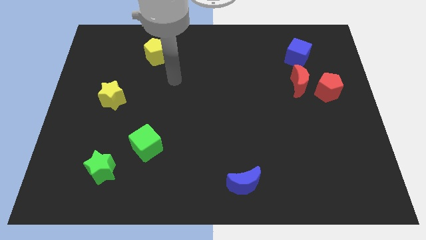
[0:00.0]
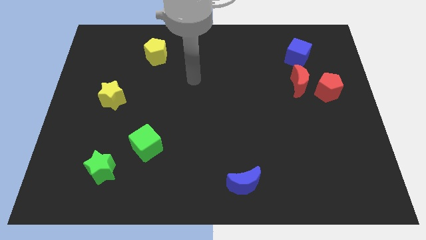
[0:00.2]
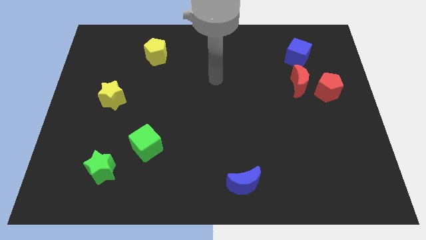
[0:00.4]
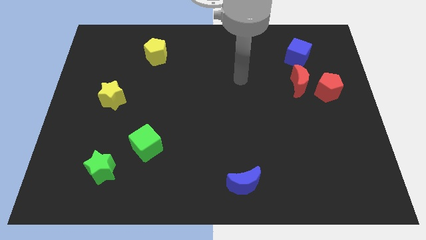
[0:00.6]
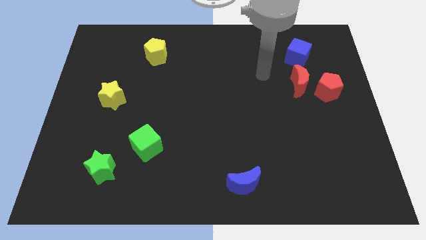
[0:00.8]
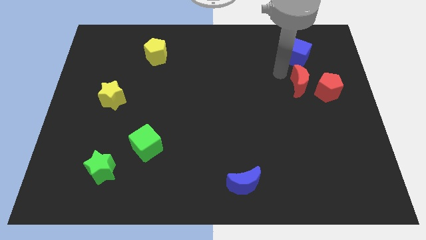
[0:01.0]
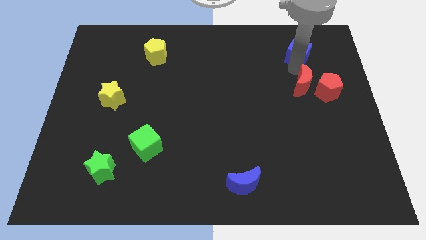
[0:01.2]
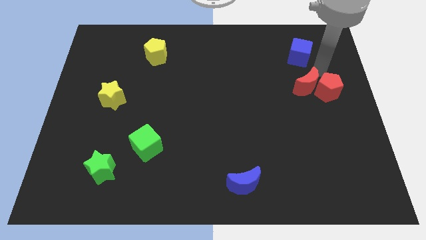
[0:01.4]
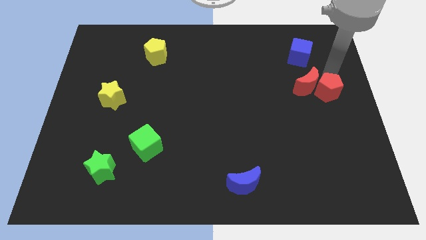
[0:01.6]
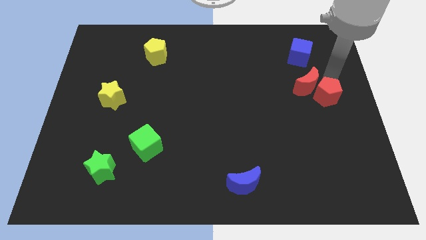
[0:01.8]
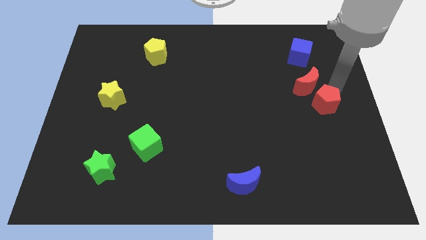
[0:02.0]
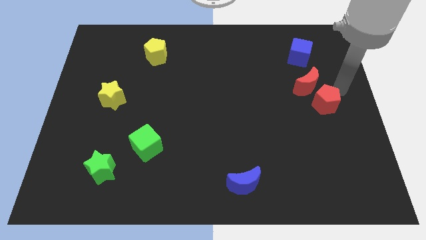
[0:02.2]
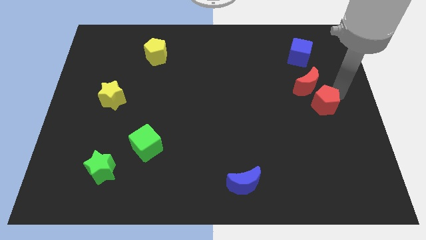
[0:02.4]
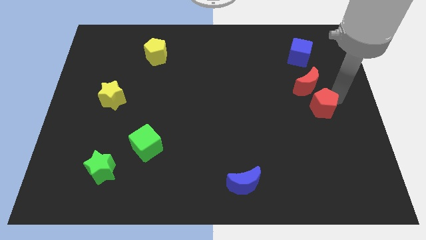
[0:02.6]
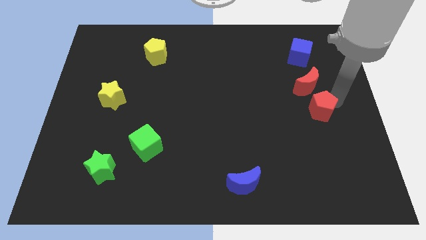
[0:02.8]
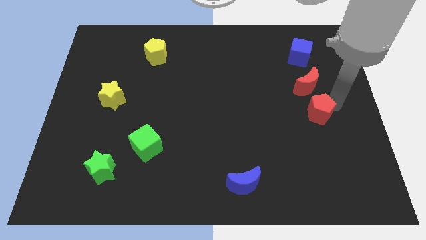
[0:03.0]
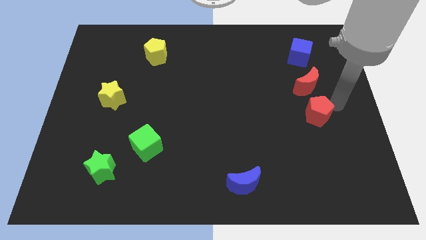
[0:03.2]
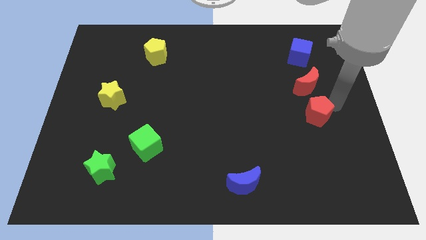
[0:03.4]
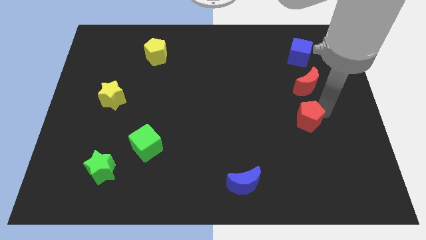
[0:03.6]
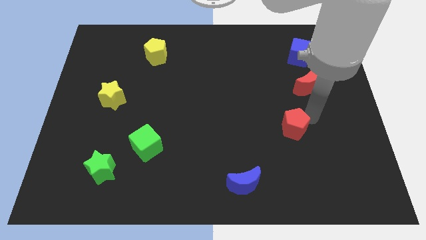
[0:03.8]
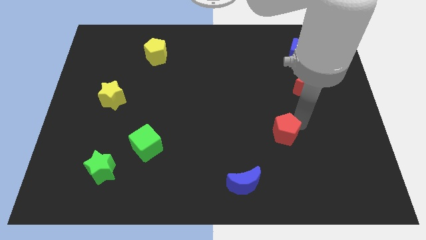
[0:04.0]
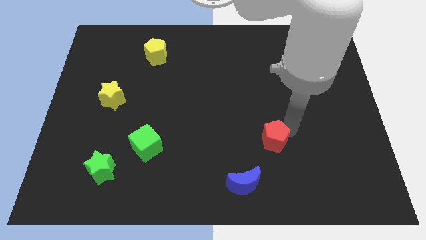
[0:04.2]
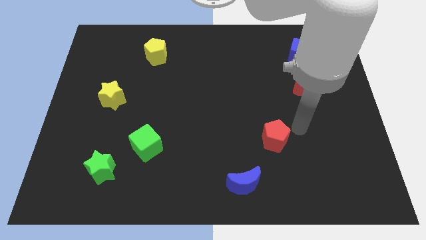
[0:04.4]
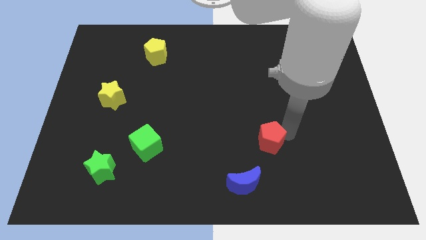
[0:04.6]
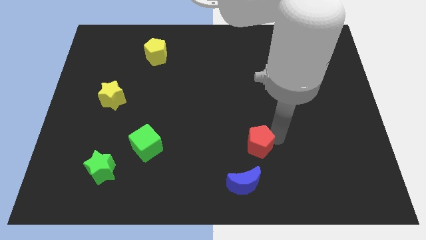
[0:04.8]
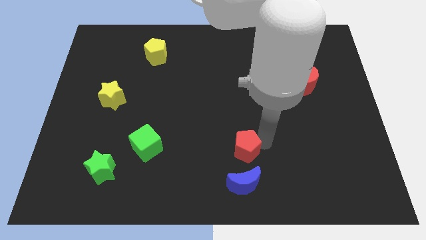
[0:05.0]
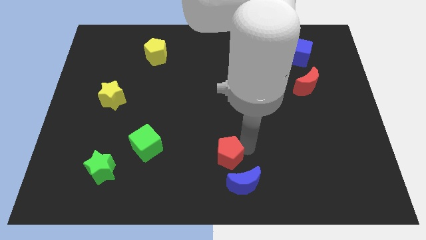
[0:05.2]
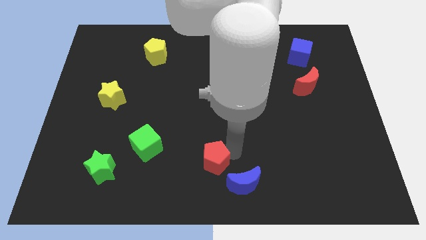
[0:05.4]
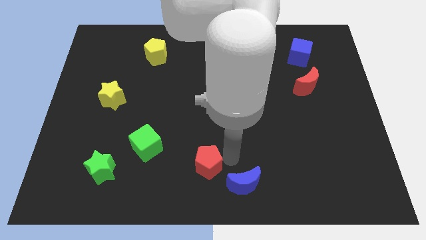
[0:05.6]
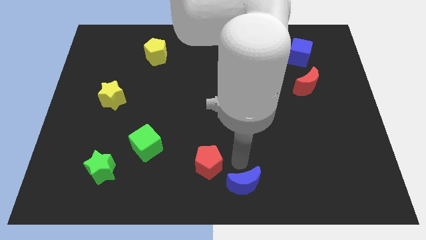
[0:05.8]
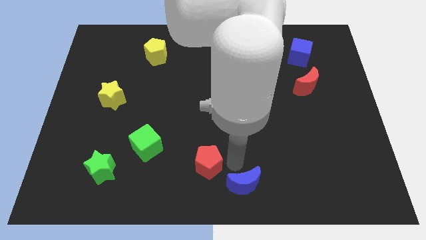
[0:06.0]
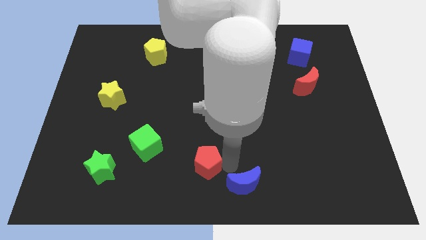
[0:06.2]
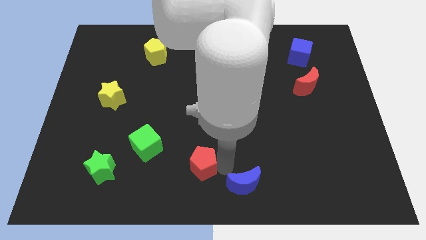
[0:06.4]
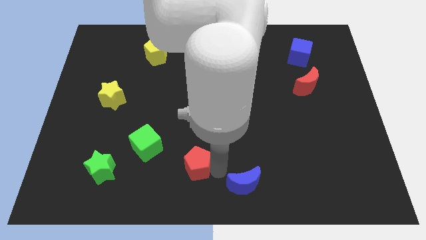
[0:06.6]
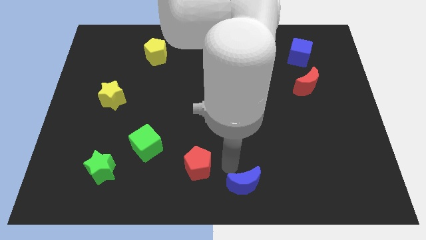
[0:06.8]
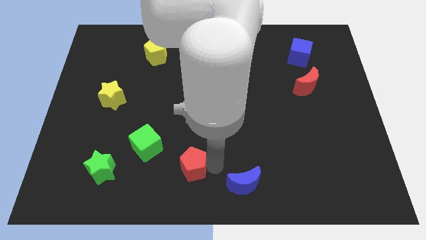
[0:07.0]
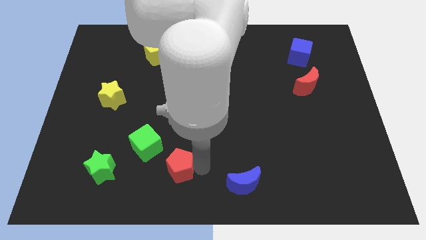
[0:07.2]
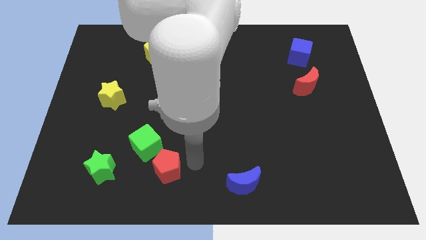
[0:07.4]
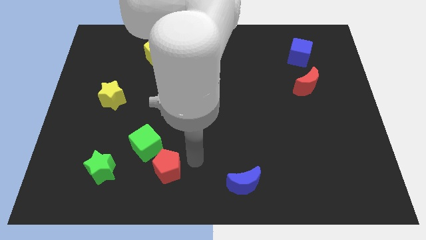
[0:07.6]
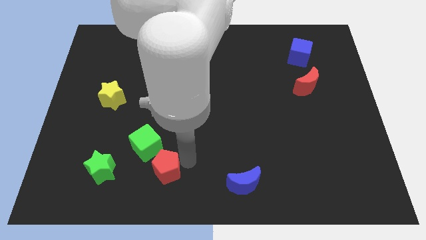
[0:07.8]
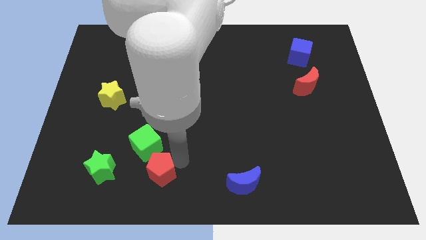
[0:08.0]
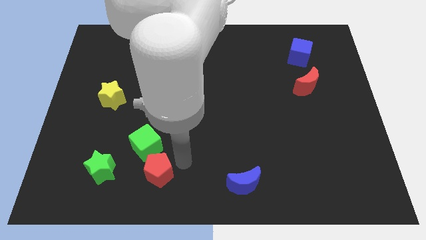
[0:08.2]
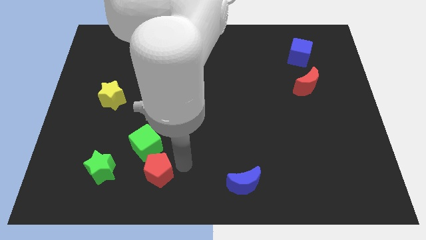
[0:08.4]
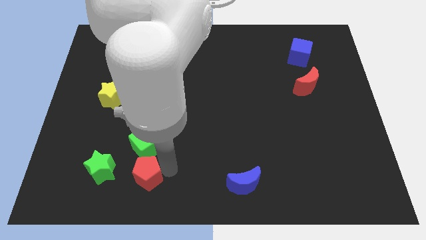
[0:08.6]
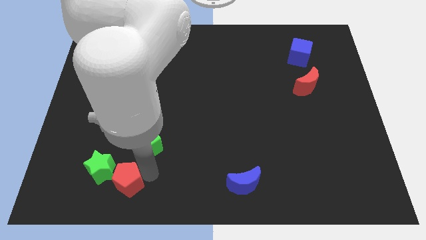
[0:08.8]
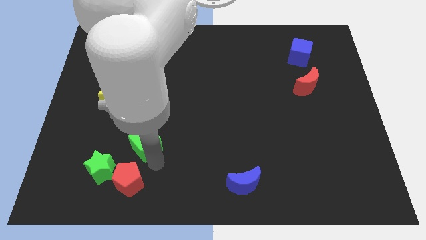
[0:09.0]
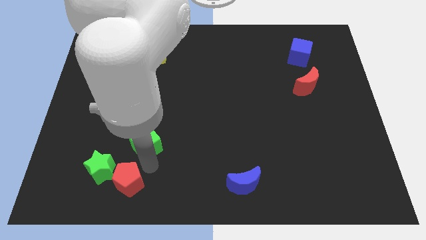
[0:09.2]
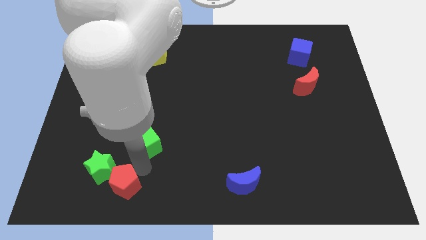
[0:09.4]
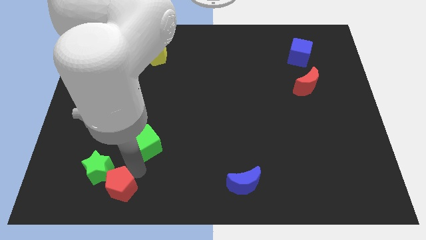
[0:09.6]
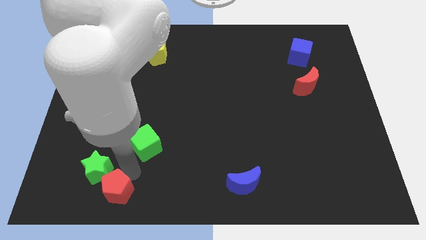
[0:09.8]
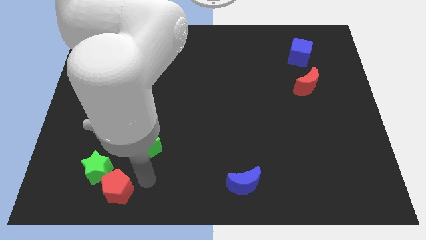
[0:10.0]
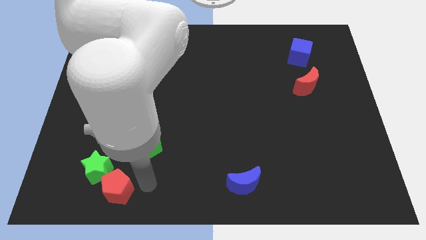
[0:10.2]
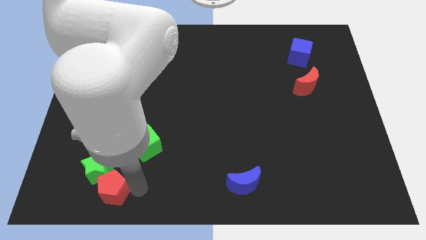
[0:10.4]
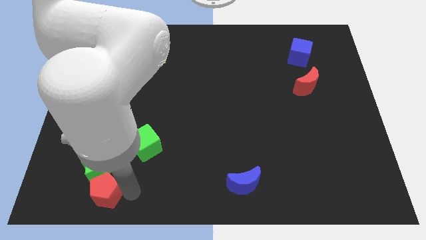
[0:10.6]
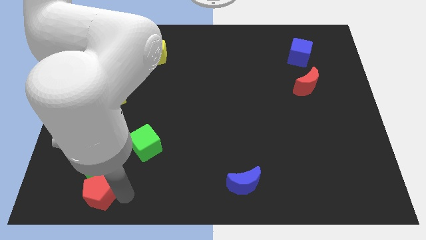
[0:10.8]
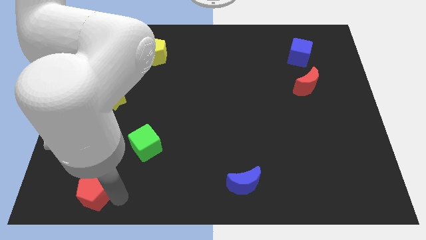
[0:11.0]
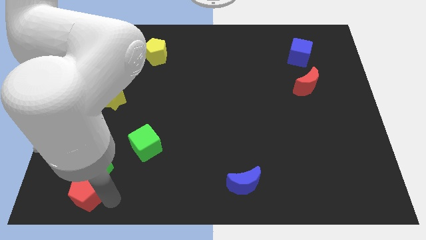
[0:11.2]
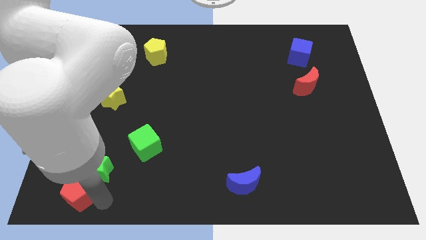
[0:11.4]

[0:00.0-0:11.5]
put the red pentagon to the bottom left corner

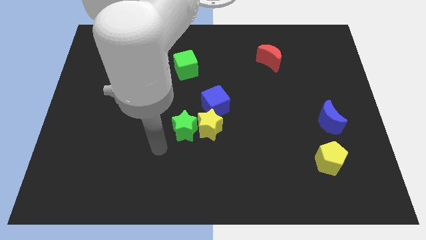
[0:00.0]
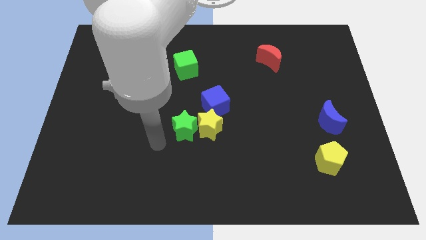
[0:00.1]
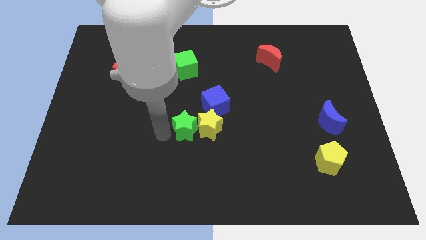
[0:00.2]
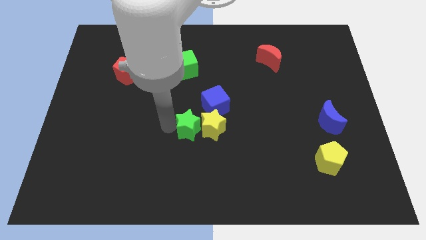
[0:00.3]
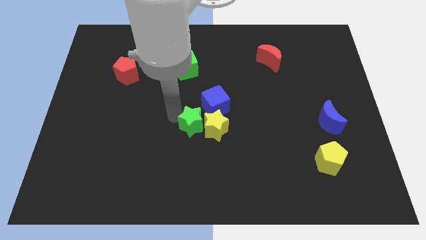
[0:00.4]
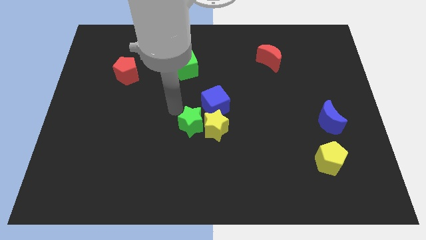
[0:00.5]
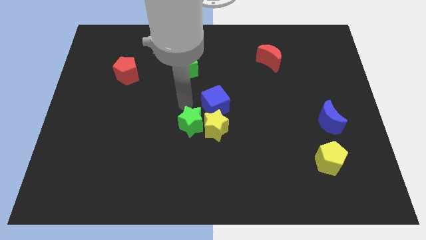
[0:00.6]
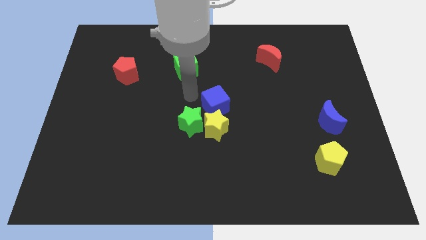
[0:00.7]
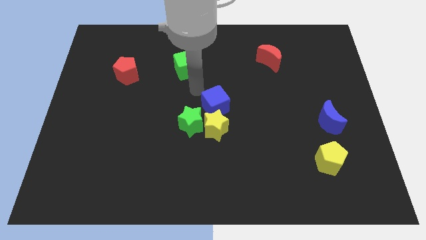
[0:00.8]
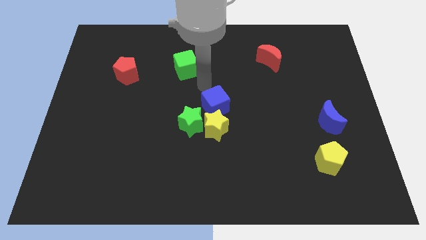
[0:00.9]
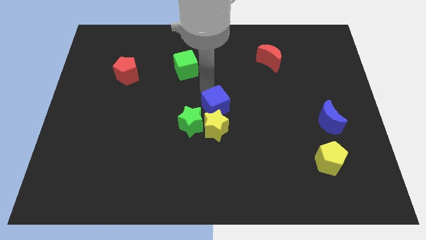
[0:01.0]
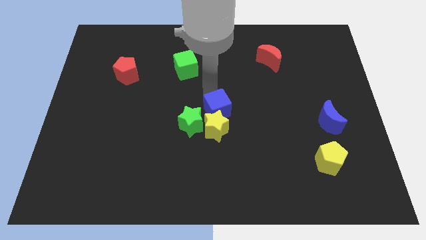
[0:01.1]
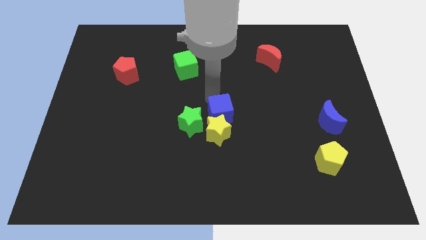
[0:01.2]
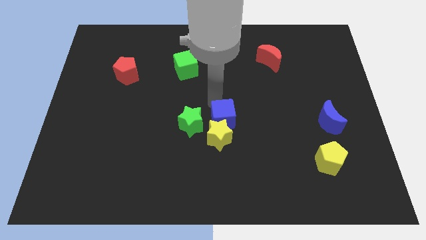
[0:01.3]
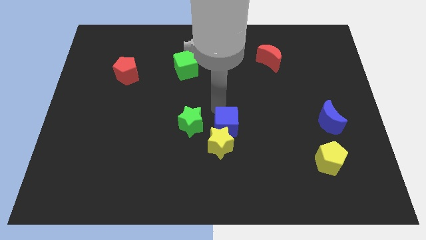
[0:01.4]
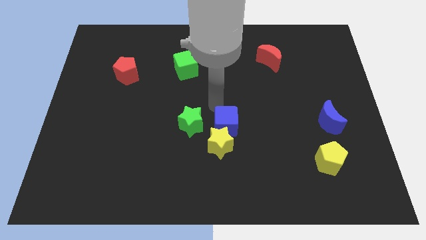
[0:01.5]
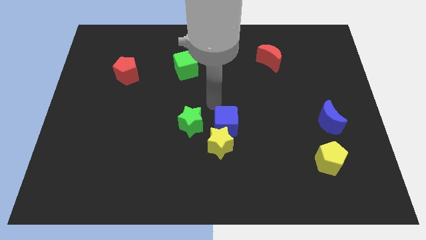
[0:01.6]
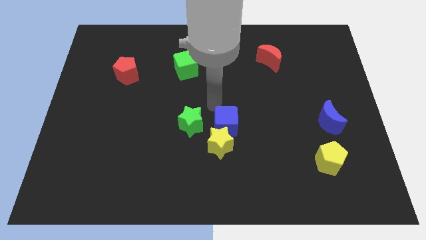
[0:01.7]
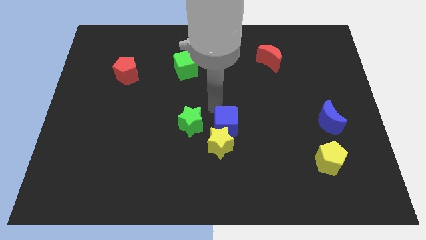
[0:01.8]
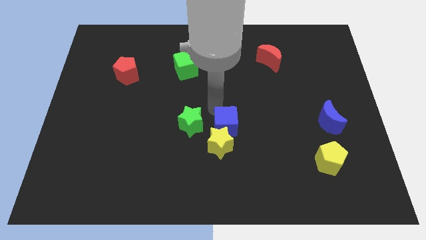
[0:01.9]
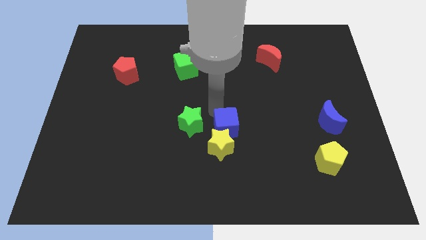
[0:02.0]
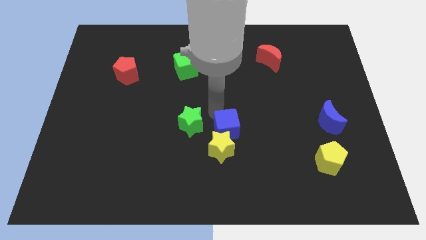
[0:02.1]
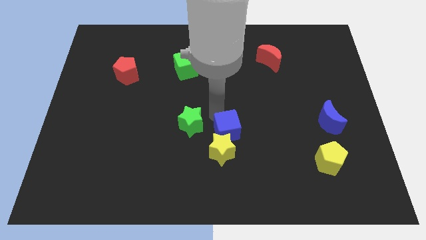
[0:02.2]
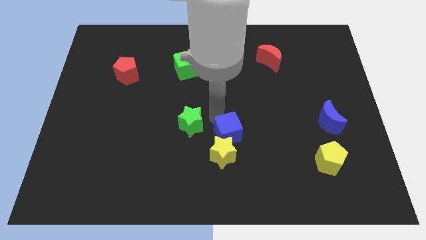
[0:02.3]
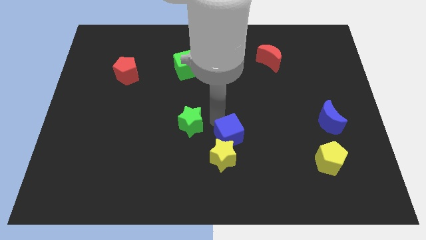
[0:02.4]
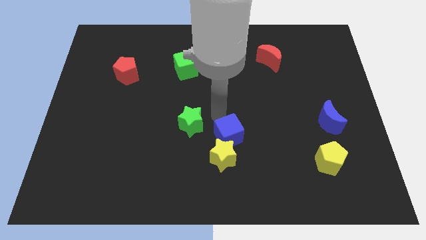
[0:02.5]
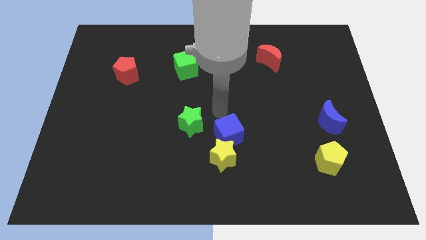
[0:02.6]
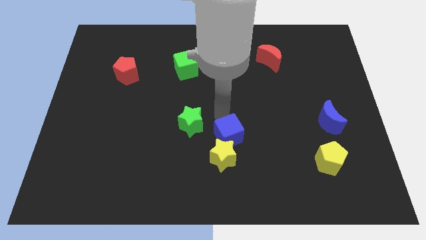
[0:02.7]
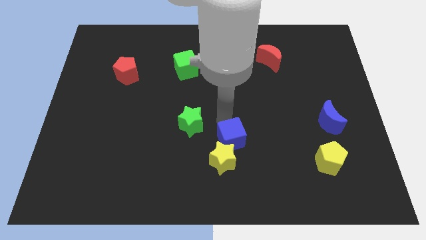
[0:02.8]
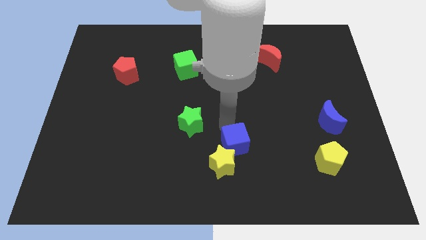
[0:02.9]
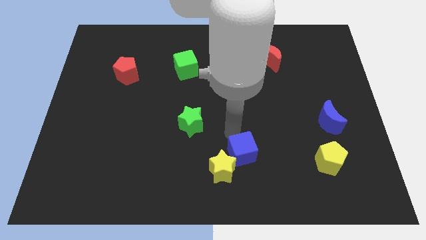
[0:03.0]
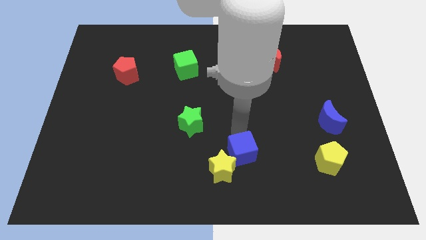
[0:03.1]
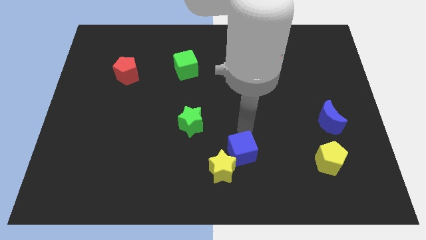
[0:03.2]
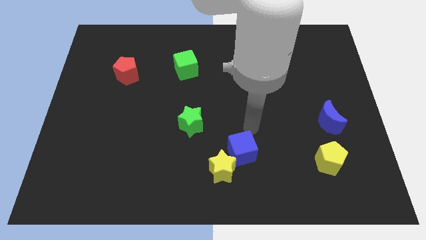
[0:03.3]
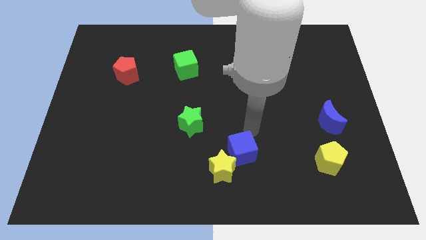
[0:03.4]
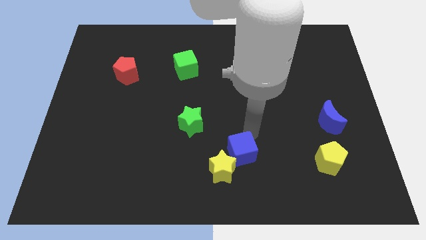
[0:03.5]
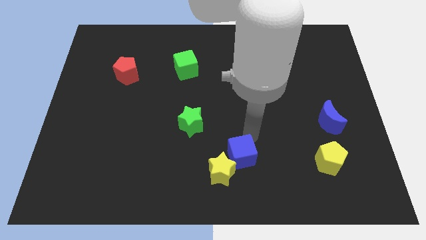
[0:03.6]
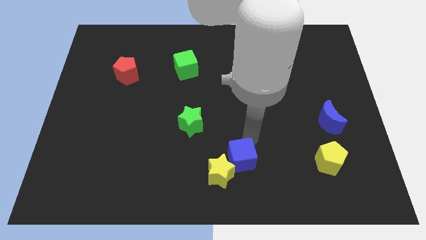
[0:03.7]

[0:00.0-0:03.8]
slide the blue cube to the bottom side
